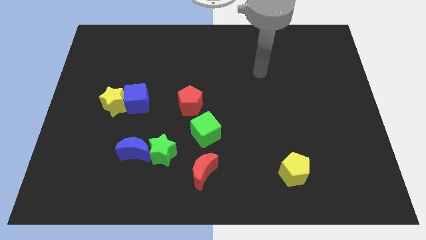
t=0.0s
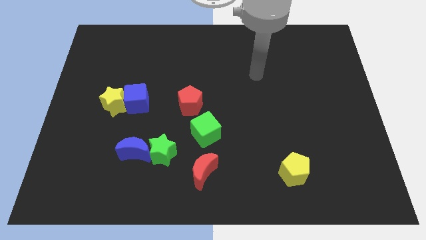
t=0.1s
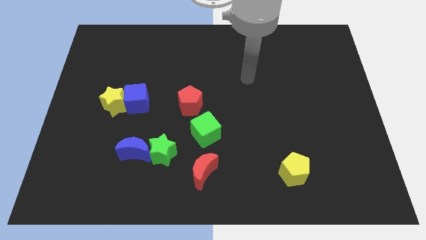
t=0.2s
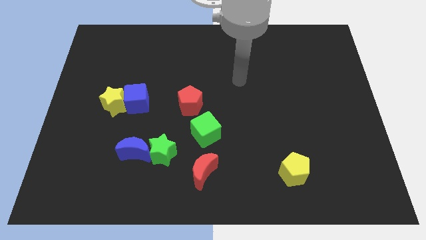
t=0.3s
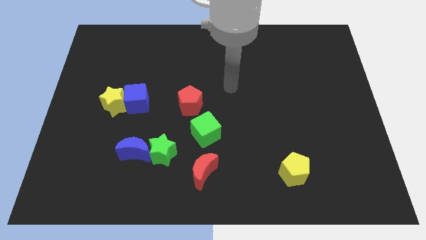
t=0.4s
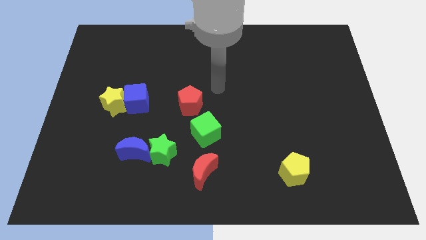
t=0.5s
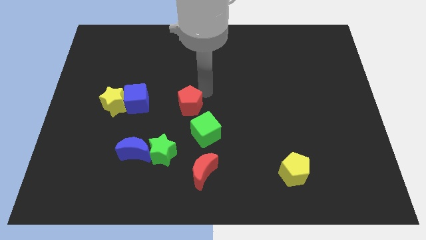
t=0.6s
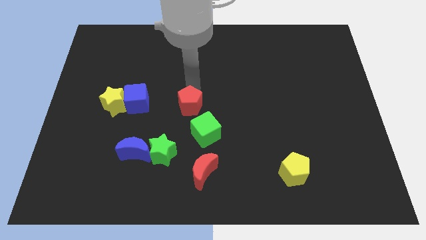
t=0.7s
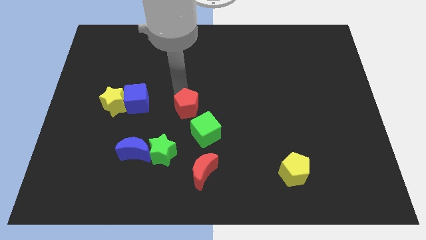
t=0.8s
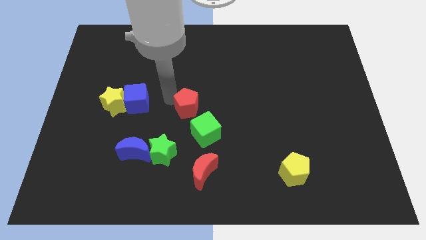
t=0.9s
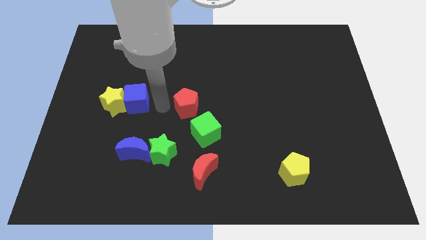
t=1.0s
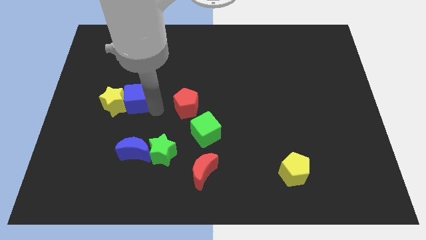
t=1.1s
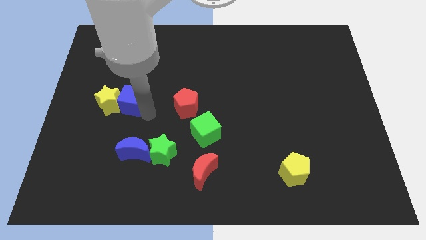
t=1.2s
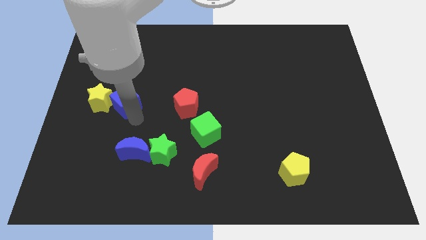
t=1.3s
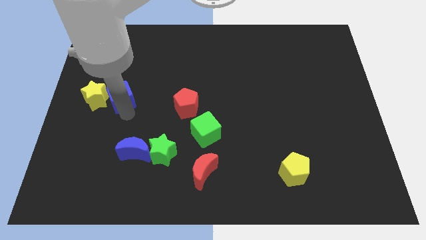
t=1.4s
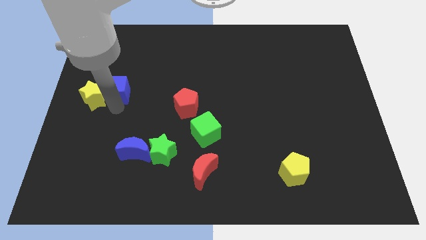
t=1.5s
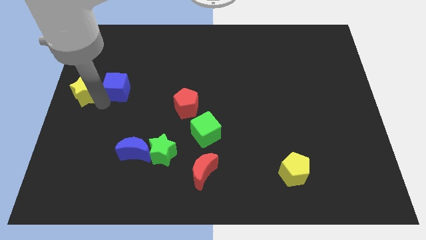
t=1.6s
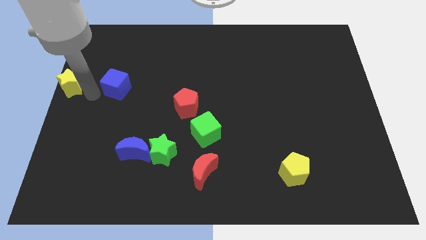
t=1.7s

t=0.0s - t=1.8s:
separate the blue cube from the yellow star

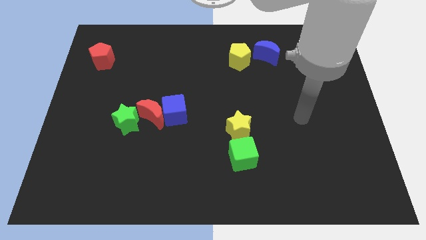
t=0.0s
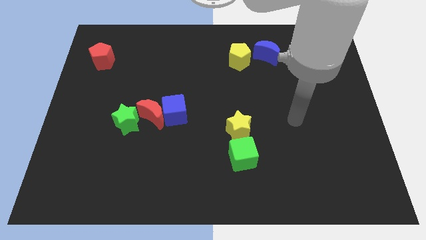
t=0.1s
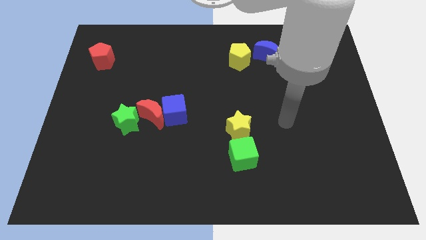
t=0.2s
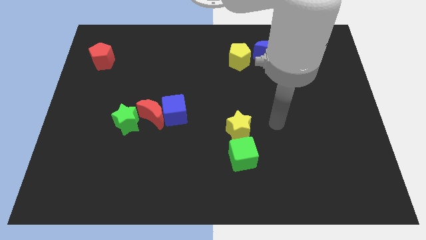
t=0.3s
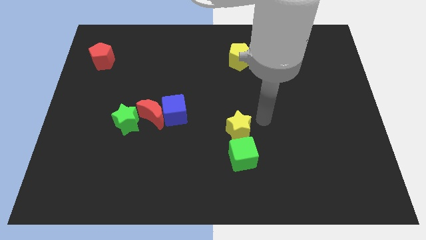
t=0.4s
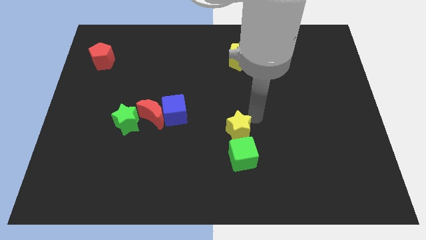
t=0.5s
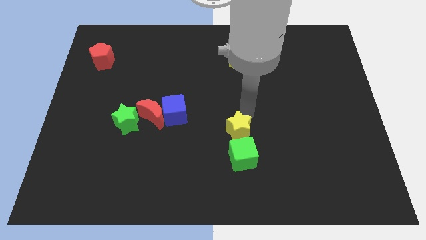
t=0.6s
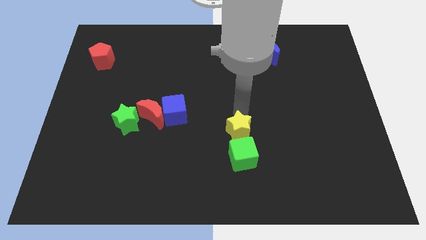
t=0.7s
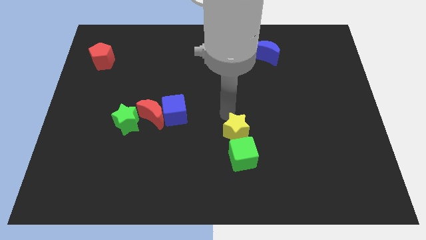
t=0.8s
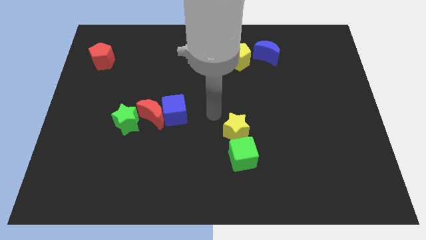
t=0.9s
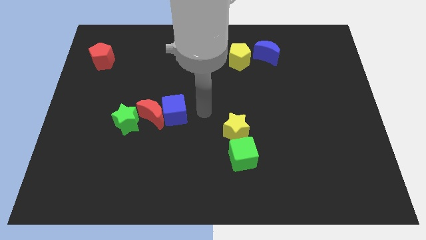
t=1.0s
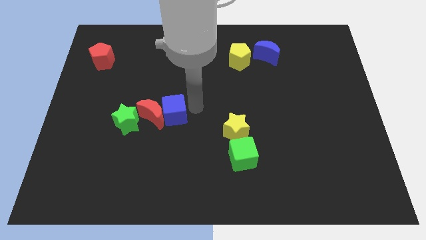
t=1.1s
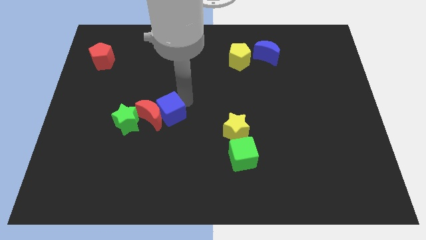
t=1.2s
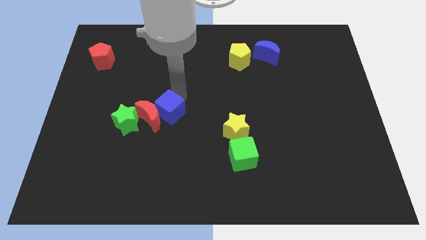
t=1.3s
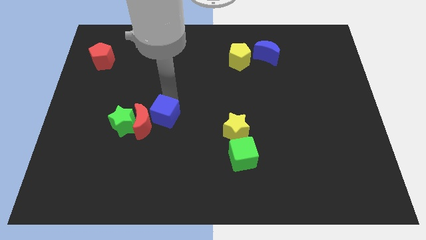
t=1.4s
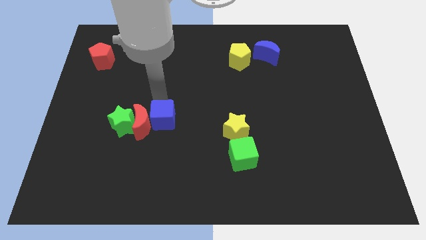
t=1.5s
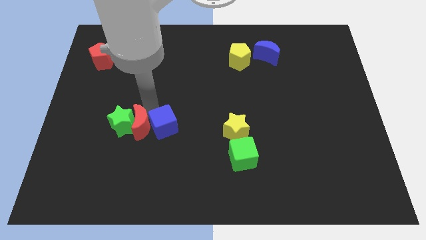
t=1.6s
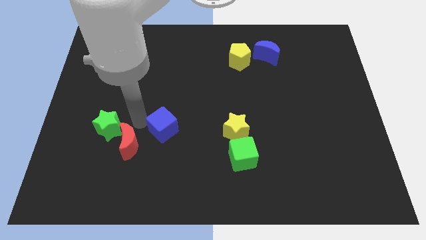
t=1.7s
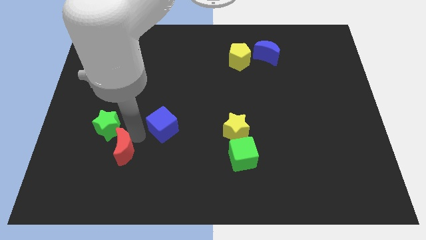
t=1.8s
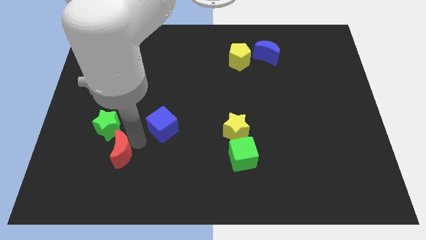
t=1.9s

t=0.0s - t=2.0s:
move the blue cube away from the red moon

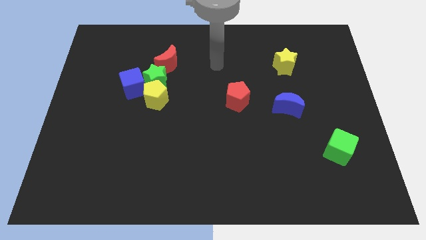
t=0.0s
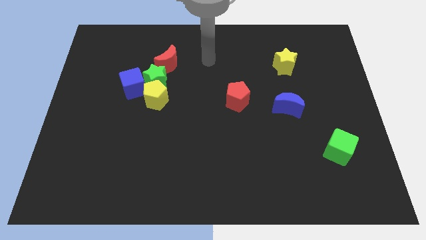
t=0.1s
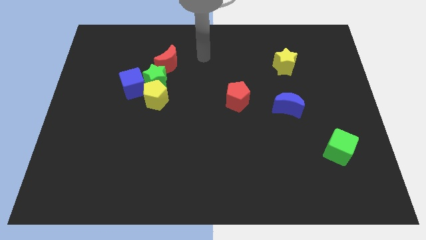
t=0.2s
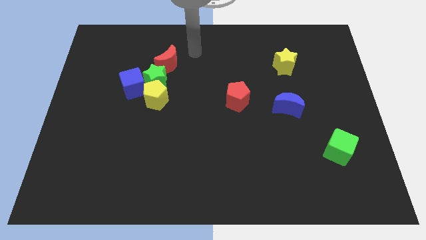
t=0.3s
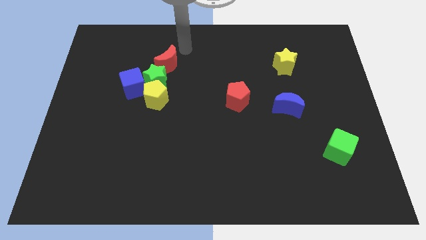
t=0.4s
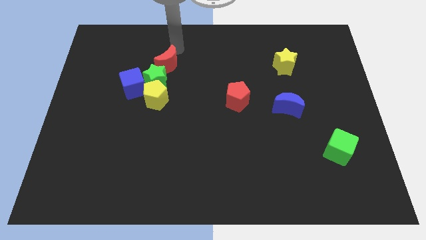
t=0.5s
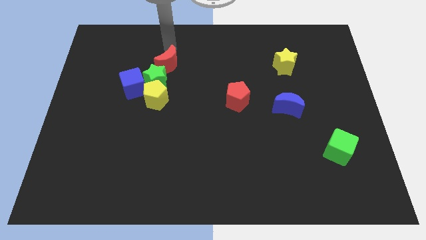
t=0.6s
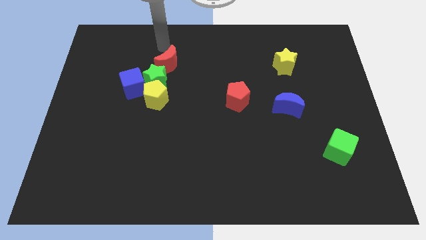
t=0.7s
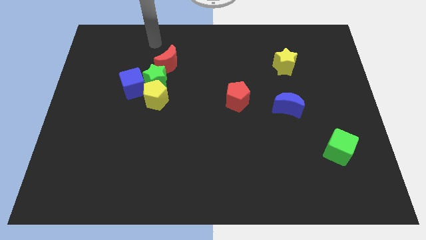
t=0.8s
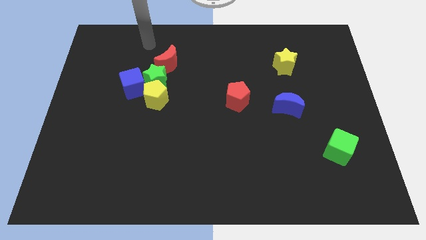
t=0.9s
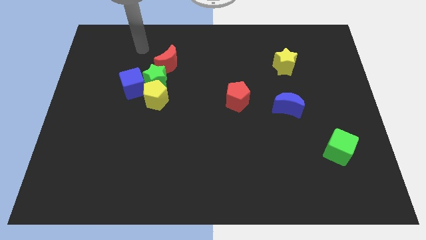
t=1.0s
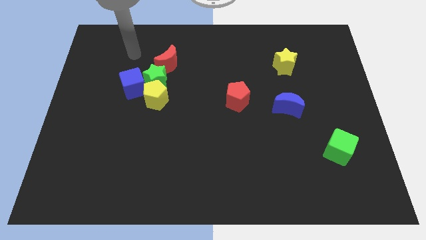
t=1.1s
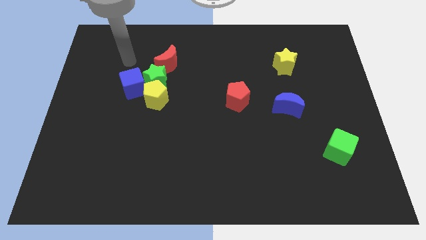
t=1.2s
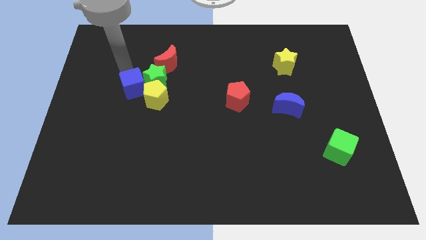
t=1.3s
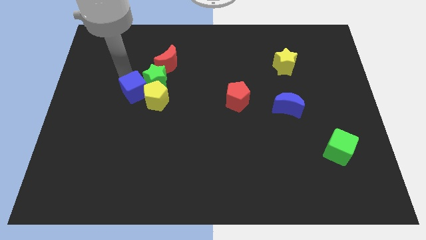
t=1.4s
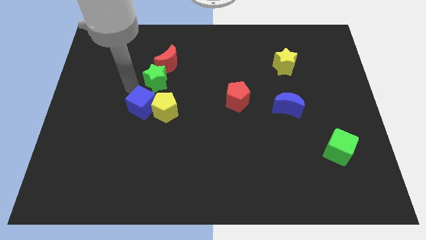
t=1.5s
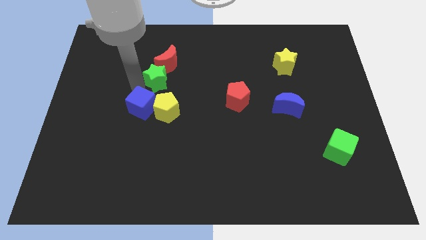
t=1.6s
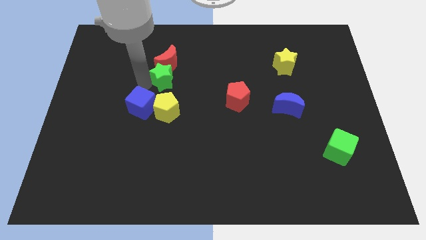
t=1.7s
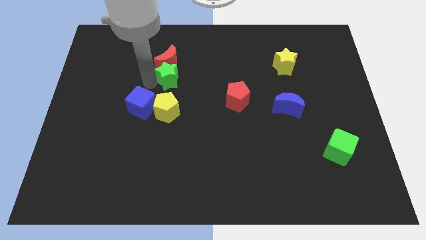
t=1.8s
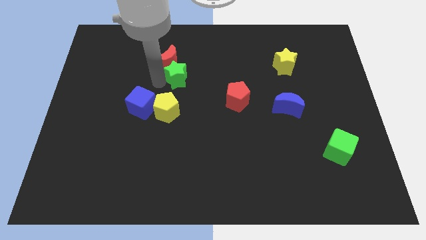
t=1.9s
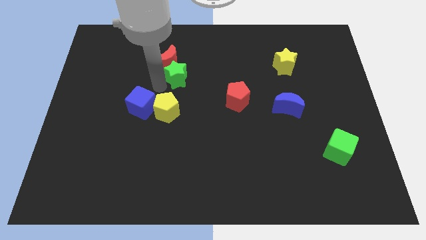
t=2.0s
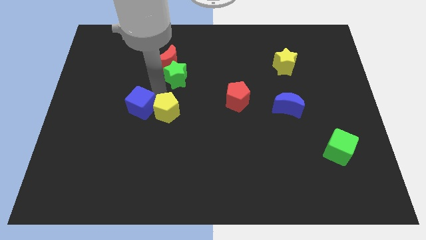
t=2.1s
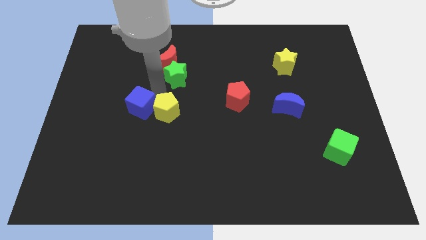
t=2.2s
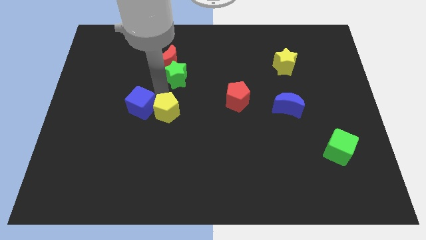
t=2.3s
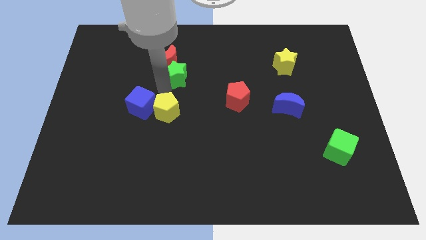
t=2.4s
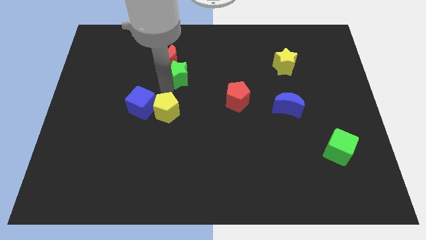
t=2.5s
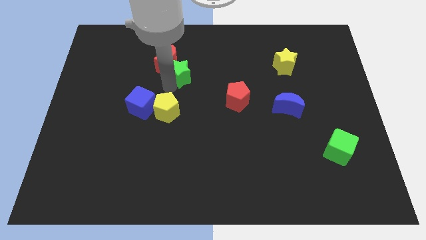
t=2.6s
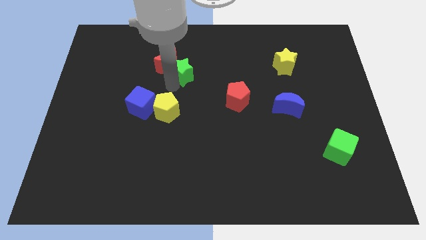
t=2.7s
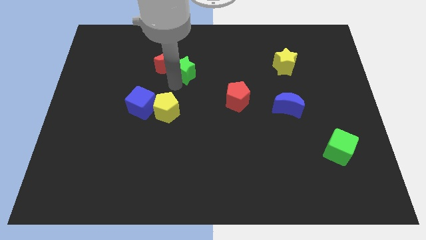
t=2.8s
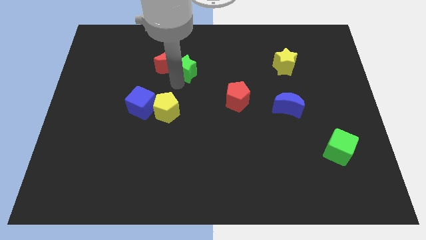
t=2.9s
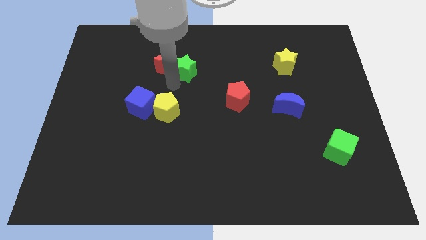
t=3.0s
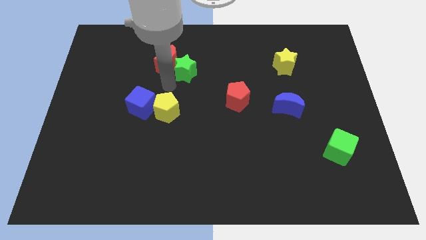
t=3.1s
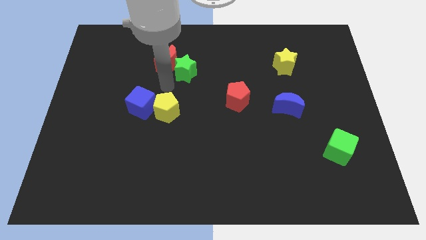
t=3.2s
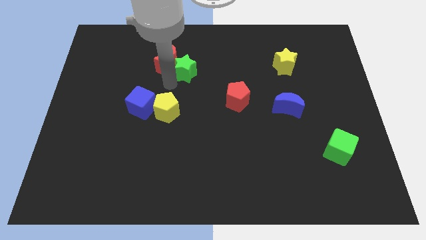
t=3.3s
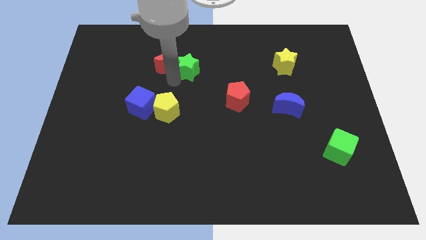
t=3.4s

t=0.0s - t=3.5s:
move the green star away from the group of blocks

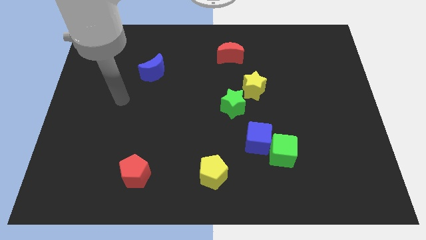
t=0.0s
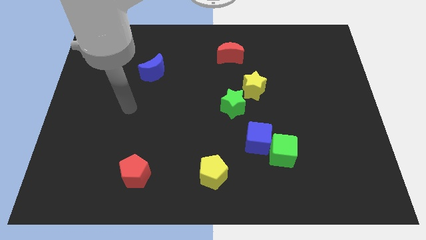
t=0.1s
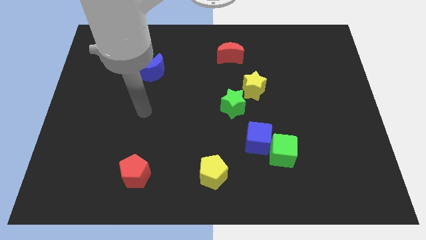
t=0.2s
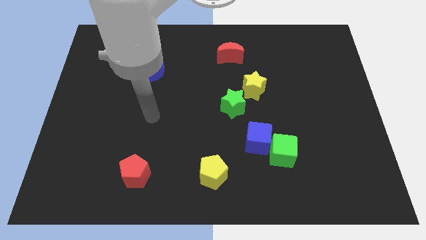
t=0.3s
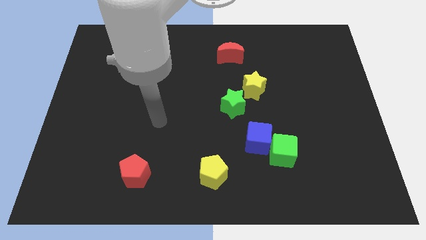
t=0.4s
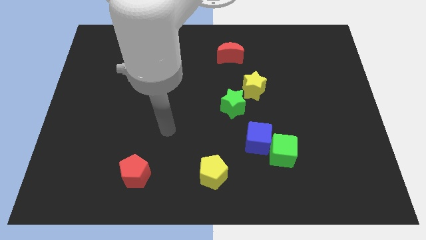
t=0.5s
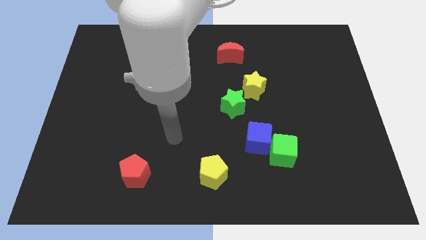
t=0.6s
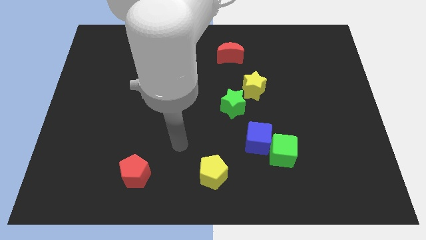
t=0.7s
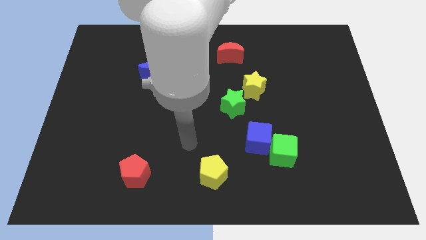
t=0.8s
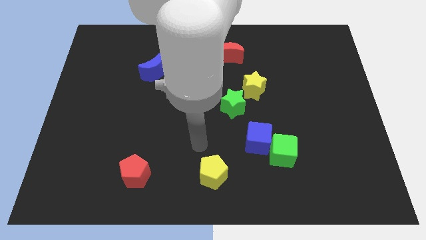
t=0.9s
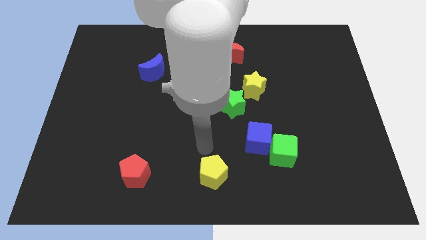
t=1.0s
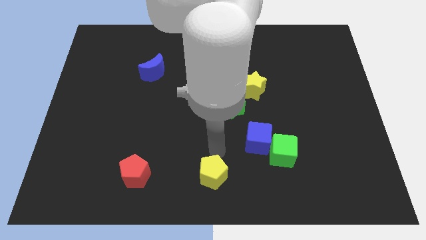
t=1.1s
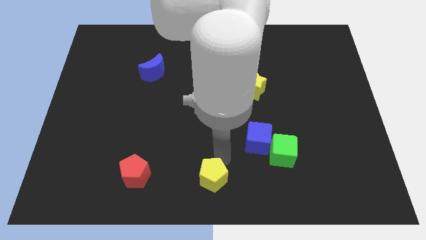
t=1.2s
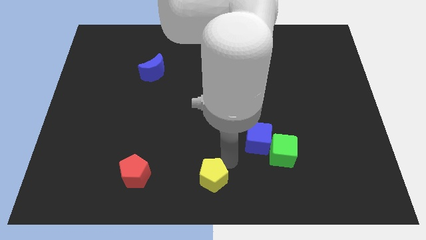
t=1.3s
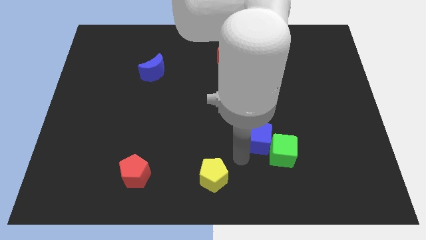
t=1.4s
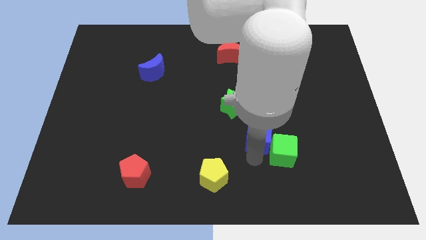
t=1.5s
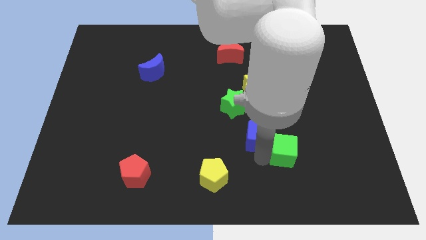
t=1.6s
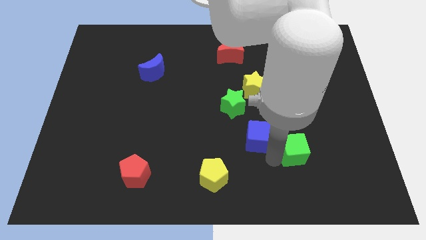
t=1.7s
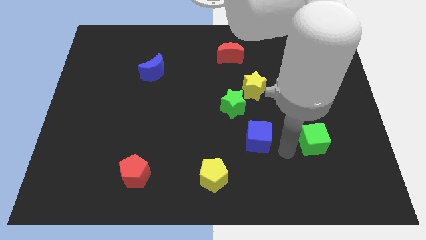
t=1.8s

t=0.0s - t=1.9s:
separate the blue cube from the green cube

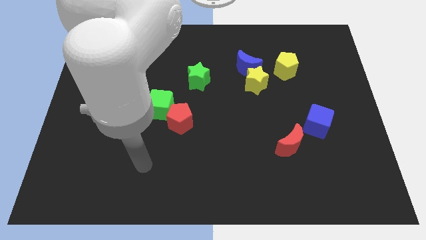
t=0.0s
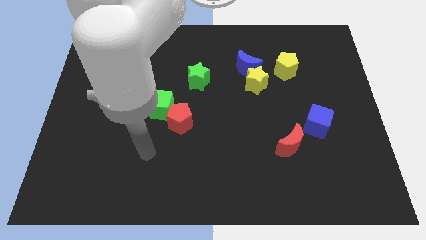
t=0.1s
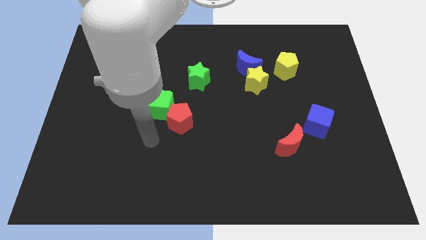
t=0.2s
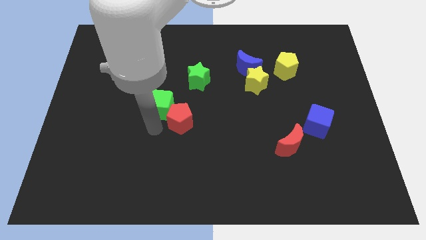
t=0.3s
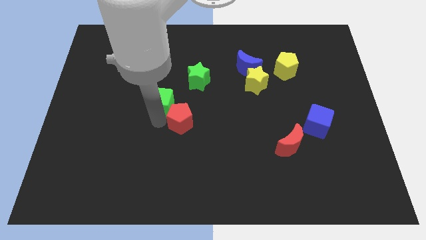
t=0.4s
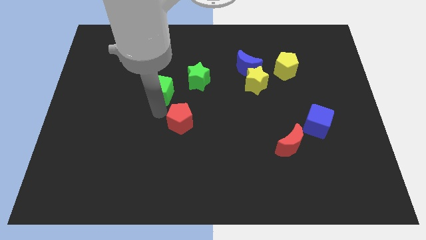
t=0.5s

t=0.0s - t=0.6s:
move the red pentagon away from the green cube
